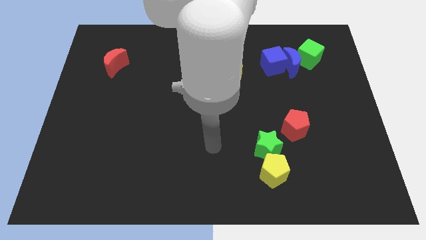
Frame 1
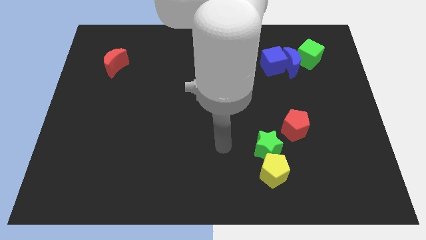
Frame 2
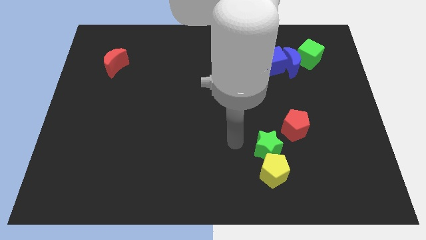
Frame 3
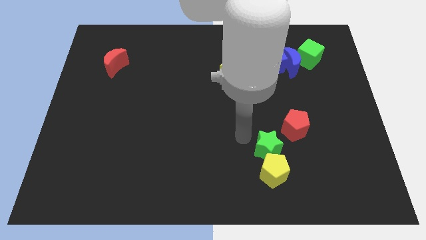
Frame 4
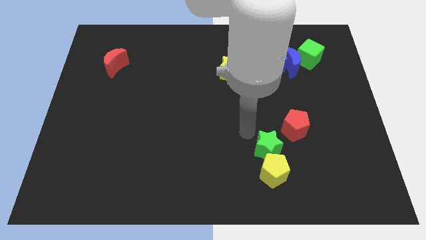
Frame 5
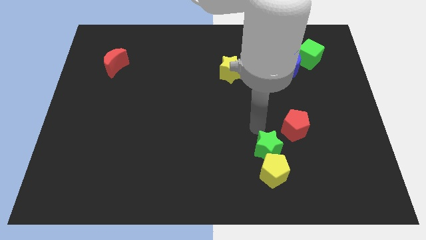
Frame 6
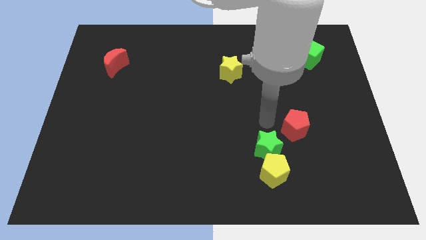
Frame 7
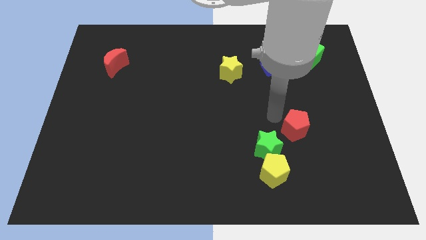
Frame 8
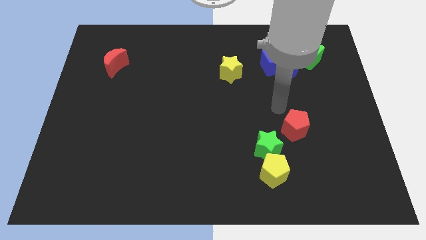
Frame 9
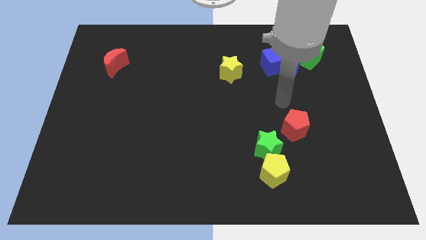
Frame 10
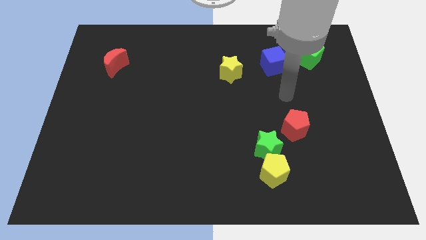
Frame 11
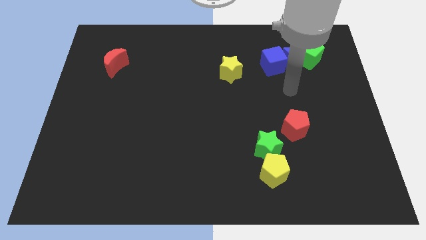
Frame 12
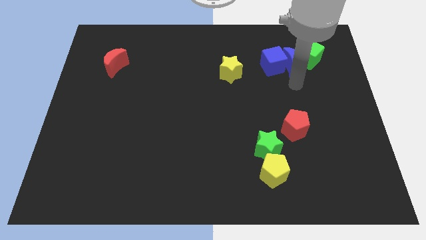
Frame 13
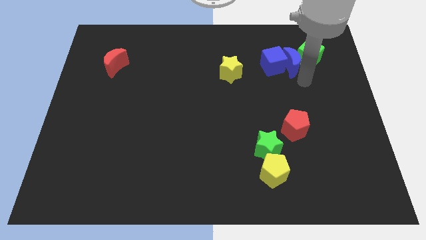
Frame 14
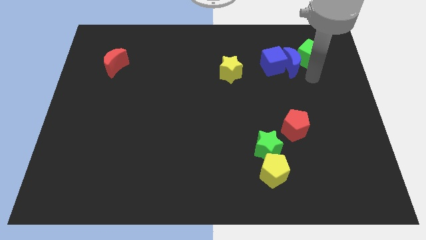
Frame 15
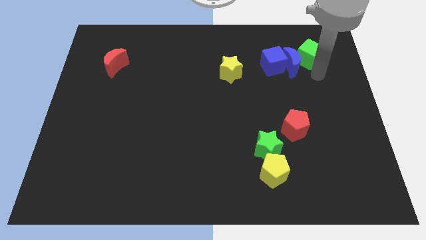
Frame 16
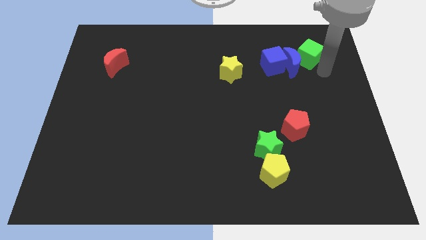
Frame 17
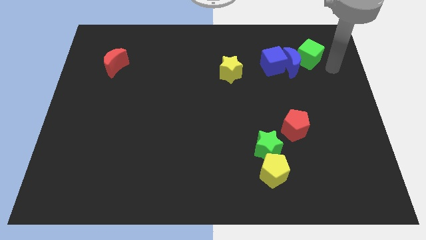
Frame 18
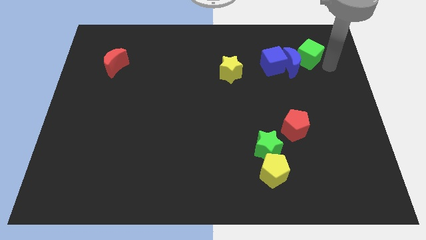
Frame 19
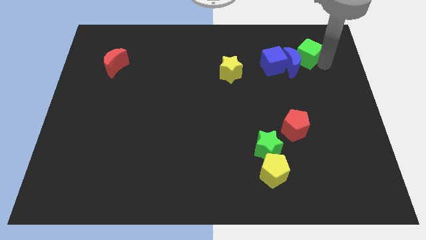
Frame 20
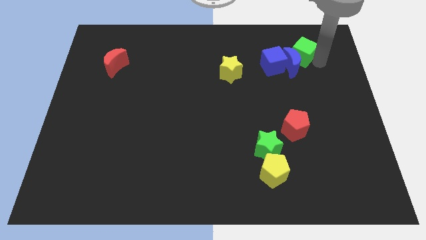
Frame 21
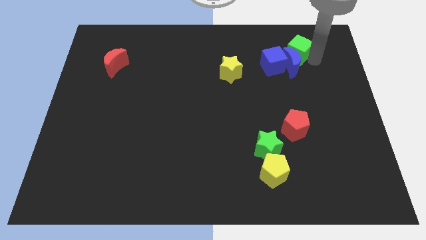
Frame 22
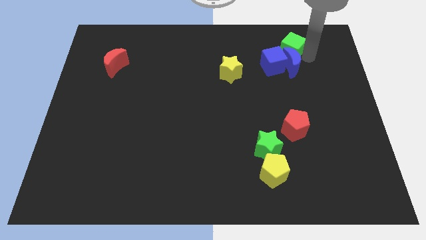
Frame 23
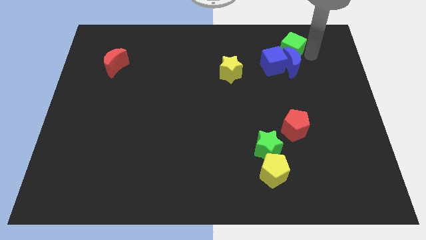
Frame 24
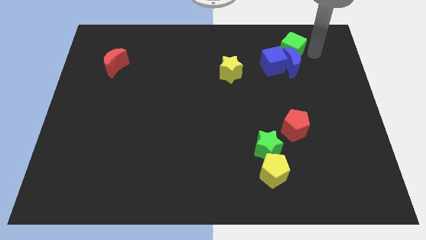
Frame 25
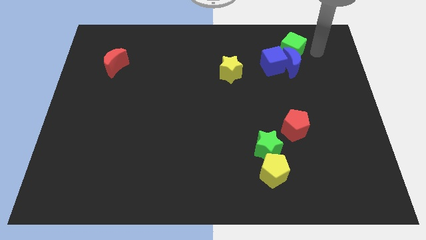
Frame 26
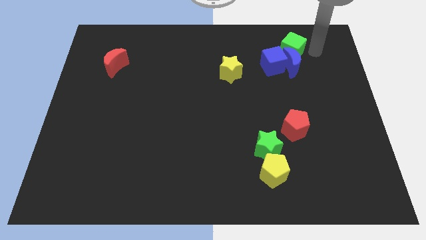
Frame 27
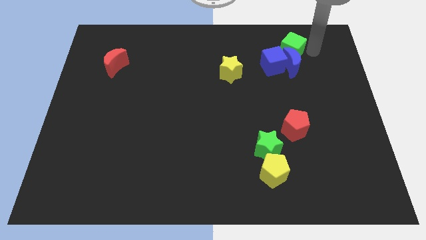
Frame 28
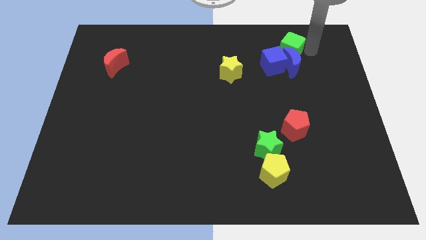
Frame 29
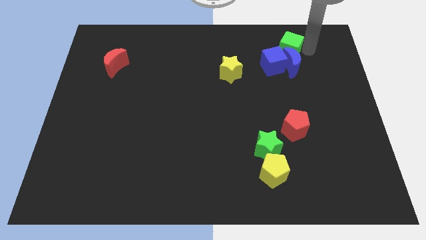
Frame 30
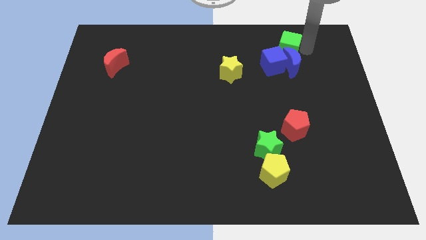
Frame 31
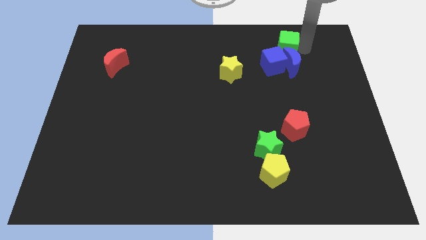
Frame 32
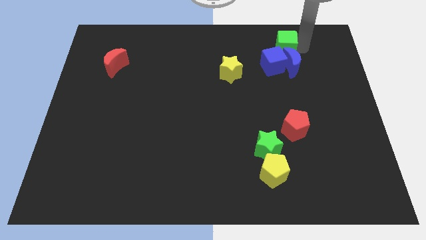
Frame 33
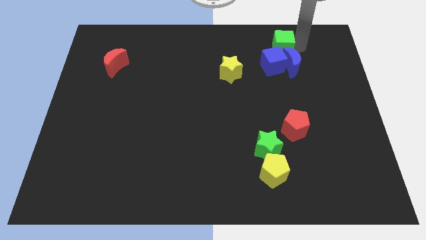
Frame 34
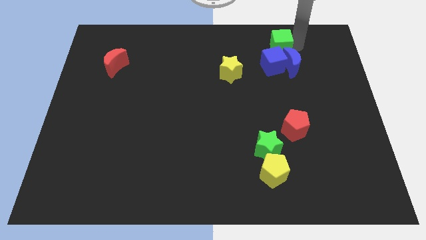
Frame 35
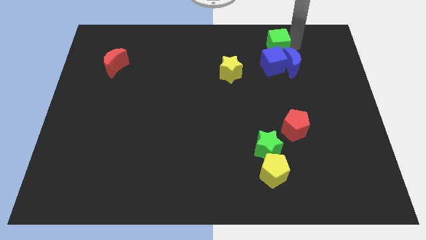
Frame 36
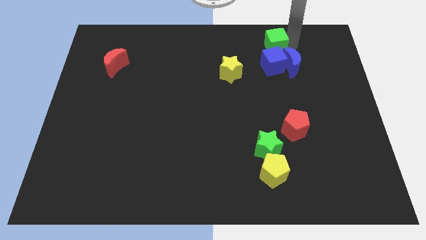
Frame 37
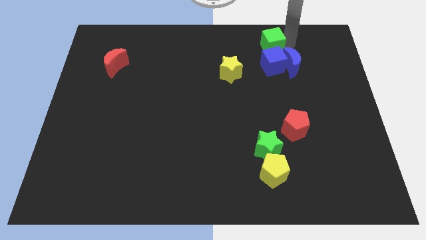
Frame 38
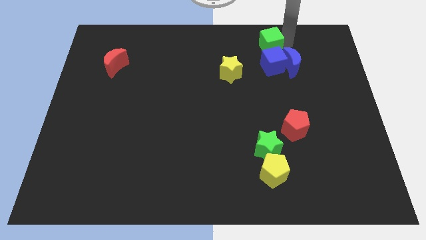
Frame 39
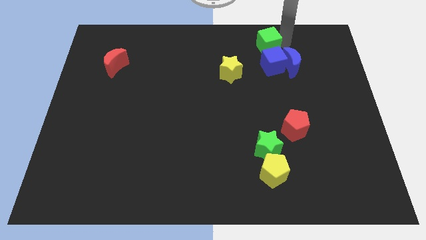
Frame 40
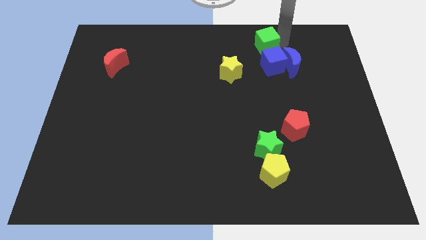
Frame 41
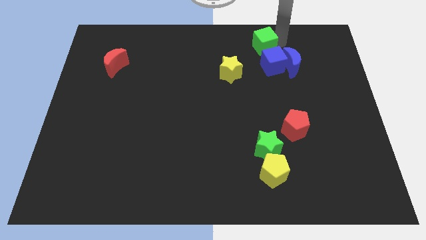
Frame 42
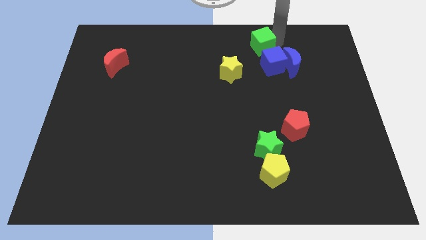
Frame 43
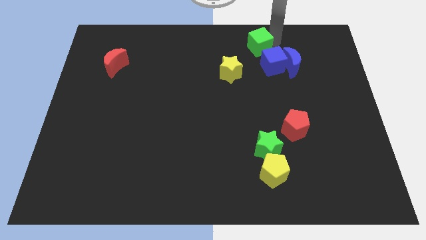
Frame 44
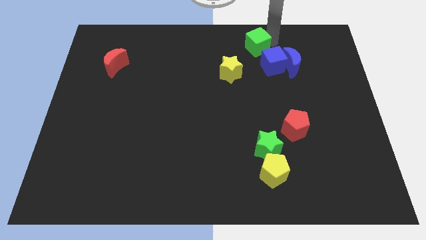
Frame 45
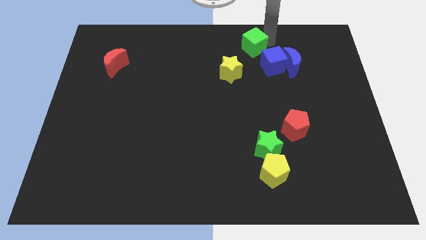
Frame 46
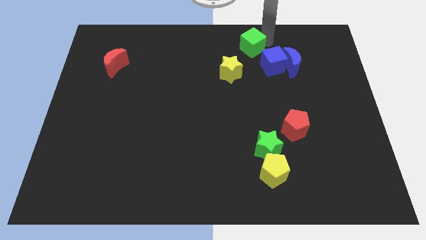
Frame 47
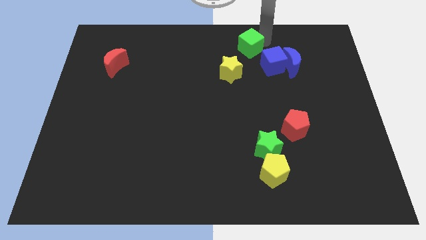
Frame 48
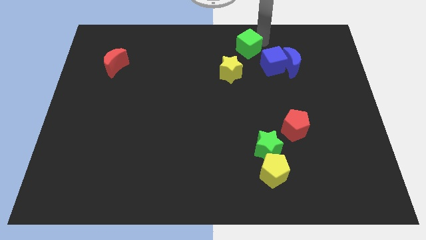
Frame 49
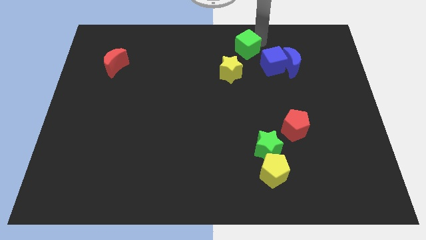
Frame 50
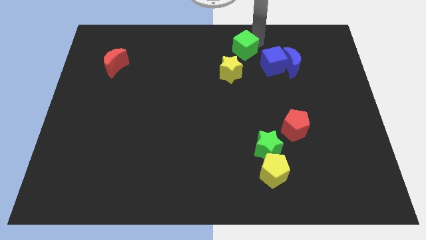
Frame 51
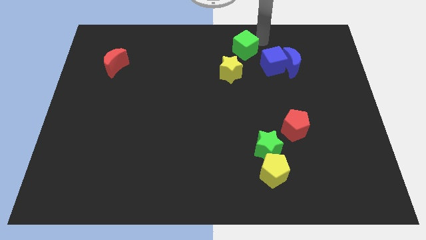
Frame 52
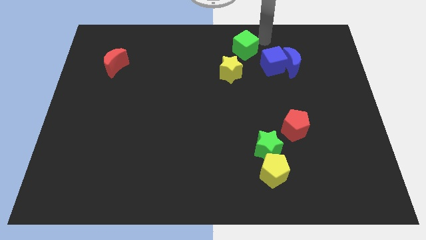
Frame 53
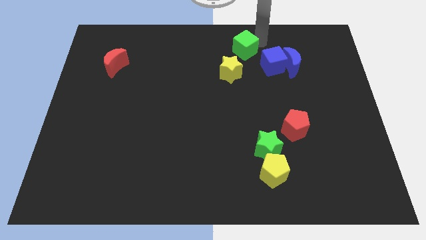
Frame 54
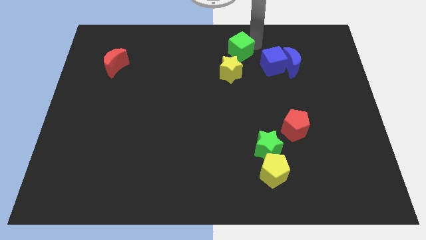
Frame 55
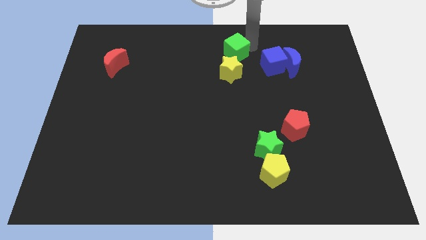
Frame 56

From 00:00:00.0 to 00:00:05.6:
push the green cube to the left side of the blue cube
